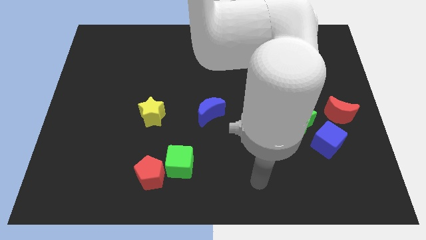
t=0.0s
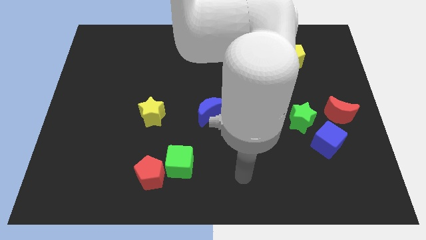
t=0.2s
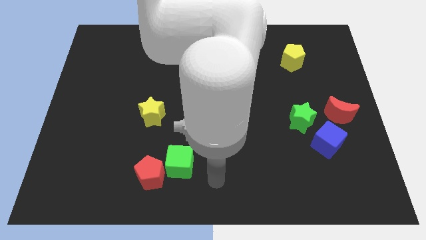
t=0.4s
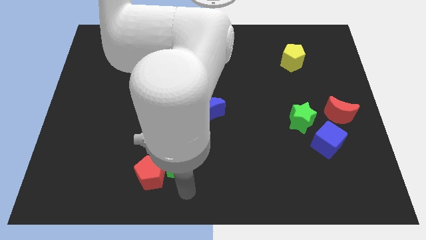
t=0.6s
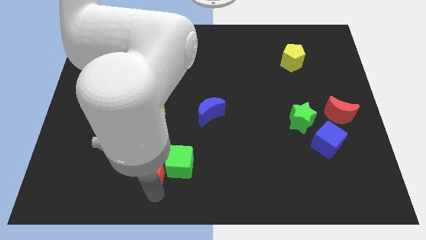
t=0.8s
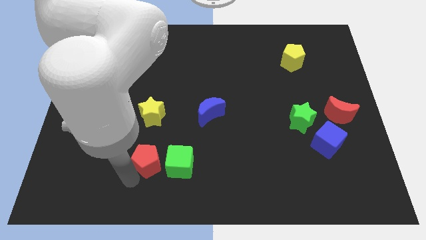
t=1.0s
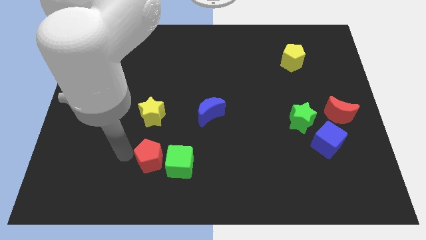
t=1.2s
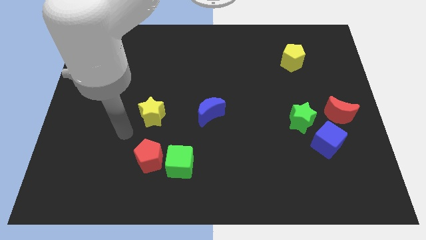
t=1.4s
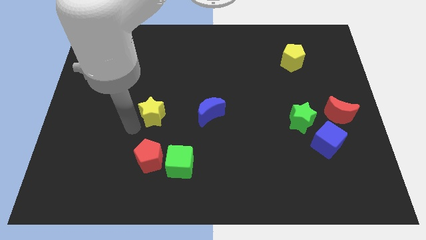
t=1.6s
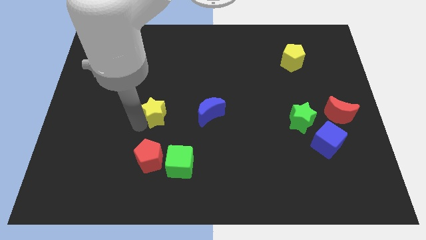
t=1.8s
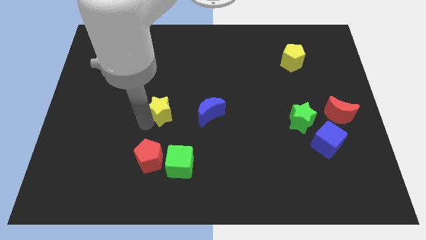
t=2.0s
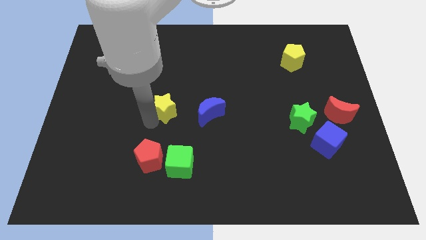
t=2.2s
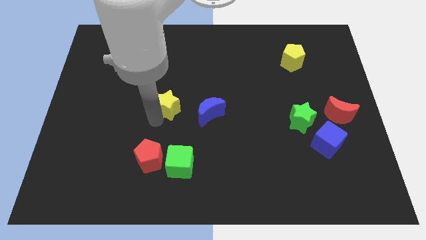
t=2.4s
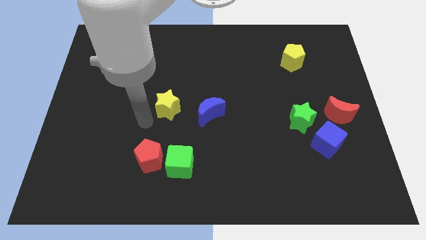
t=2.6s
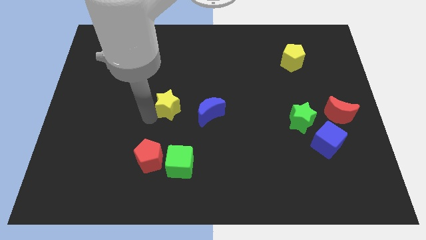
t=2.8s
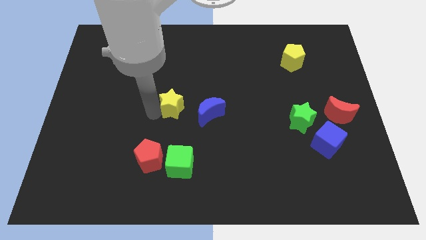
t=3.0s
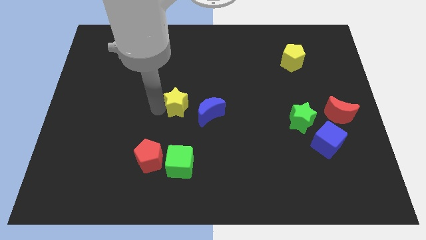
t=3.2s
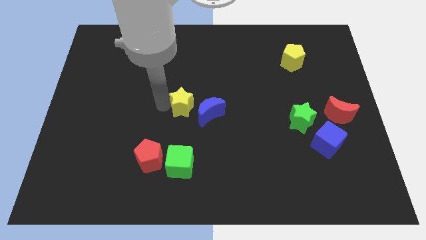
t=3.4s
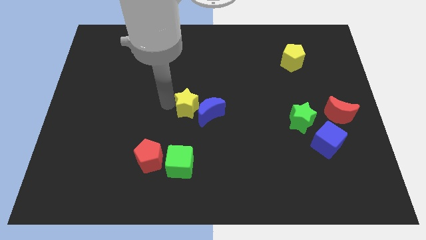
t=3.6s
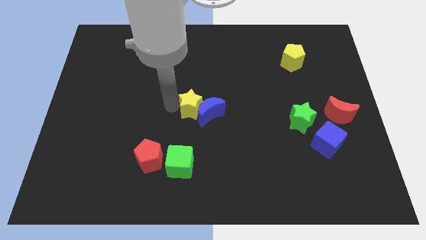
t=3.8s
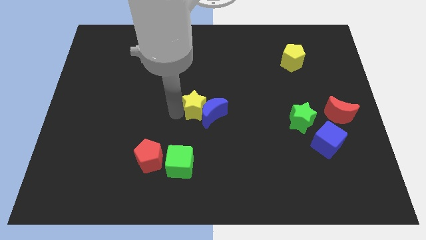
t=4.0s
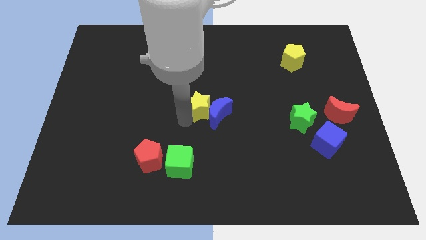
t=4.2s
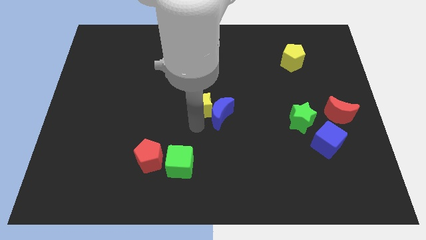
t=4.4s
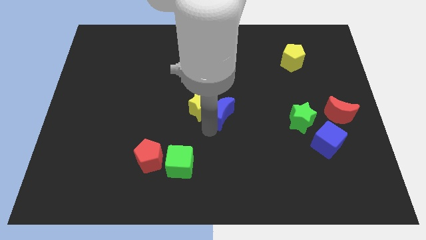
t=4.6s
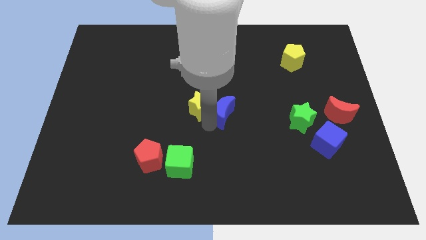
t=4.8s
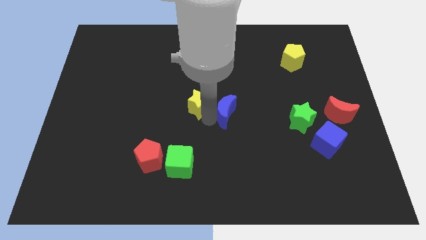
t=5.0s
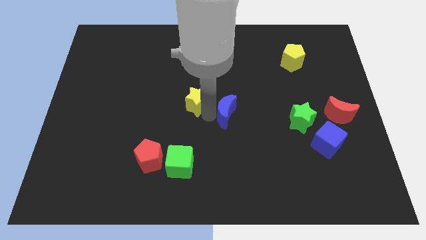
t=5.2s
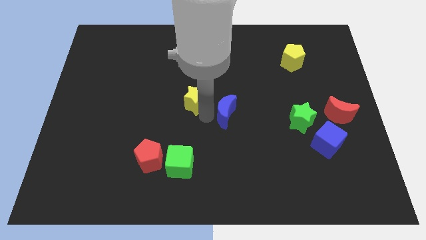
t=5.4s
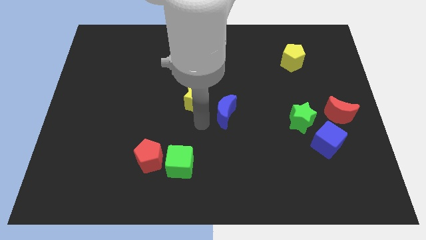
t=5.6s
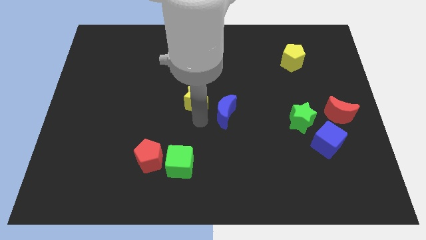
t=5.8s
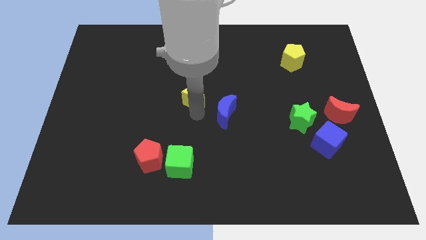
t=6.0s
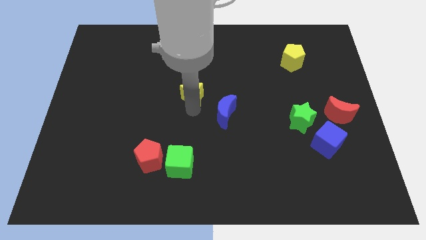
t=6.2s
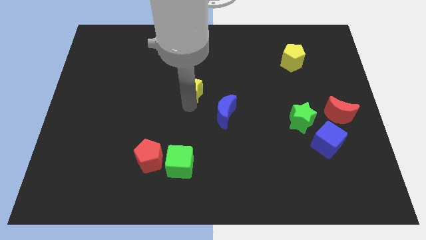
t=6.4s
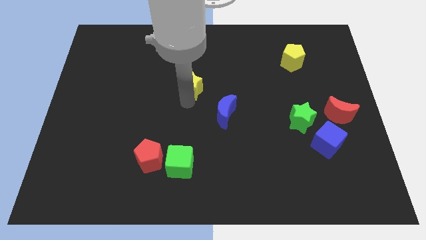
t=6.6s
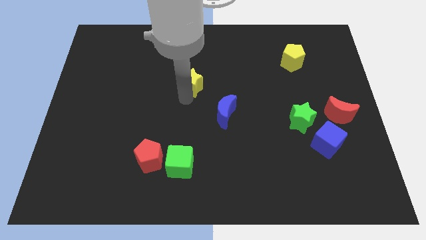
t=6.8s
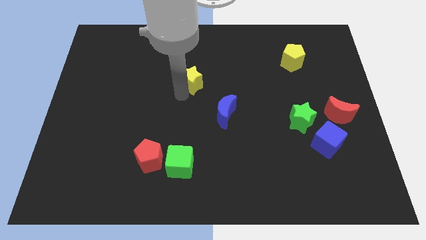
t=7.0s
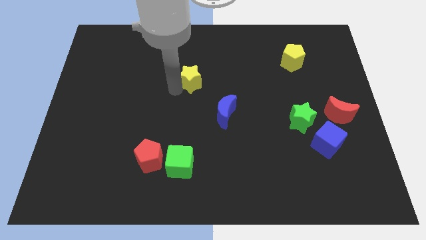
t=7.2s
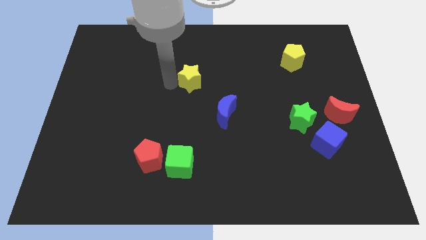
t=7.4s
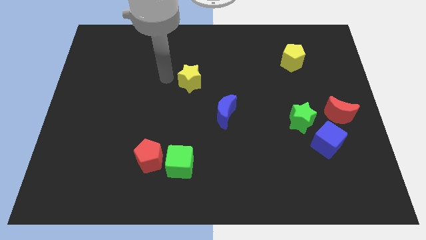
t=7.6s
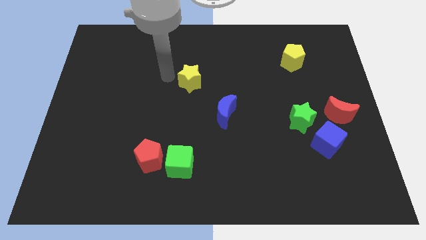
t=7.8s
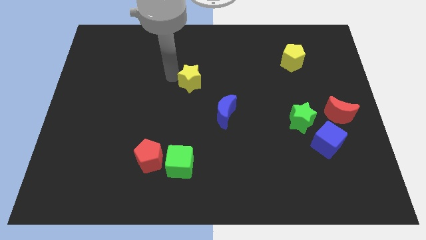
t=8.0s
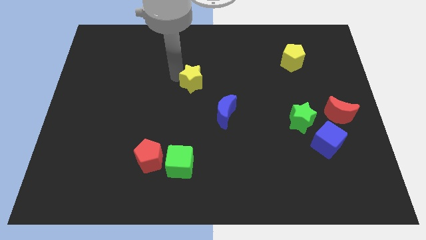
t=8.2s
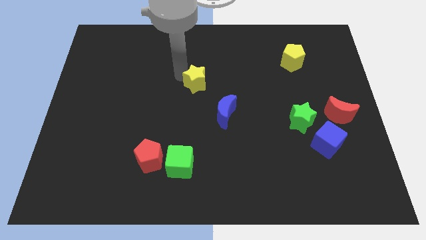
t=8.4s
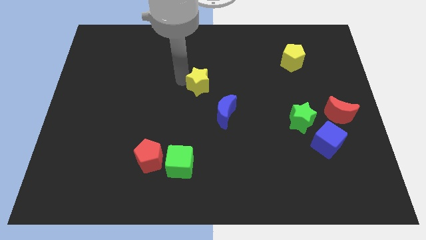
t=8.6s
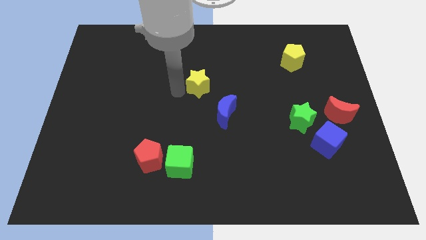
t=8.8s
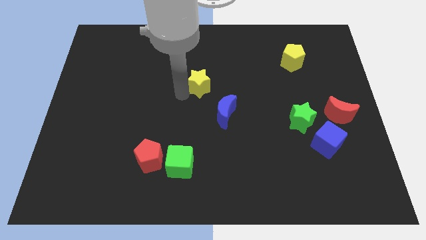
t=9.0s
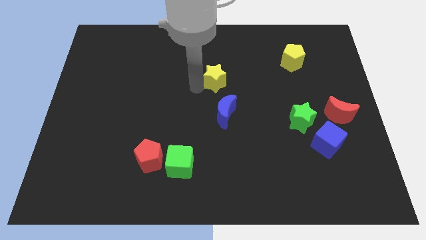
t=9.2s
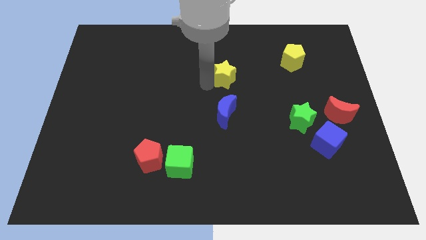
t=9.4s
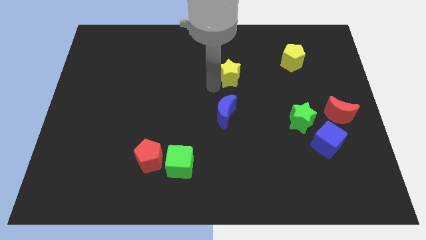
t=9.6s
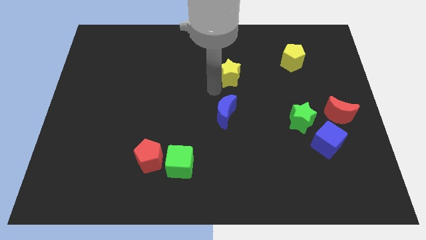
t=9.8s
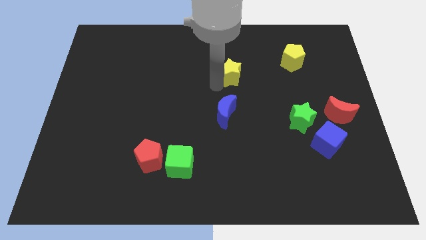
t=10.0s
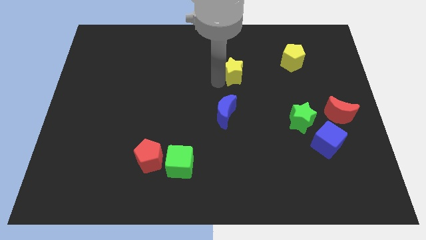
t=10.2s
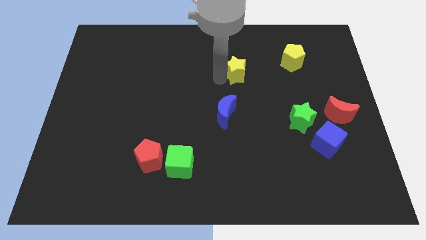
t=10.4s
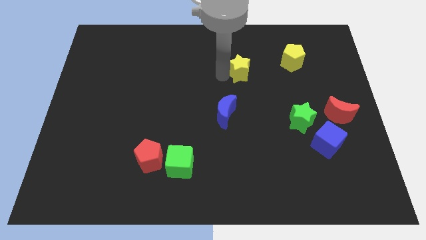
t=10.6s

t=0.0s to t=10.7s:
push the yellow star to the left side of the yellow pentagon

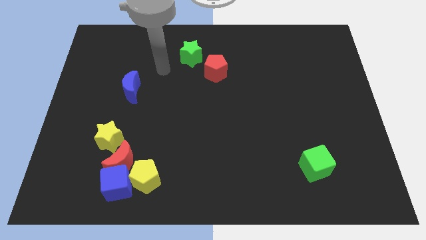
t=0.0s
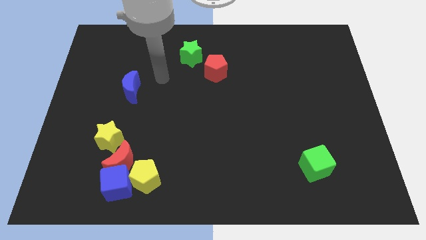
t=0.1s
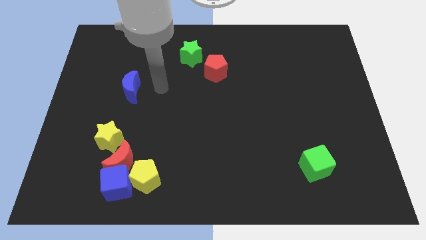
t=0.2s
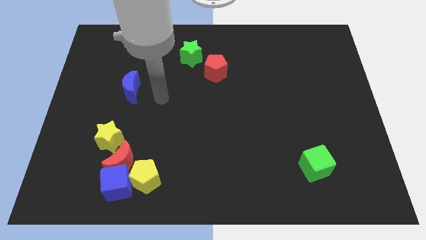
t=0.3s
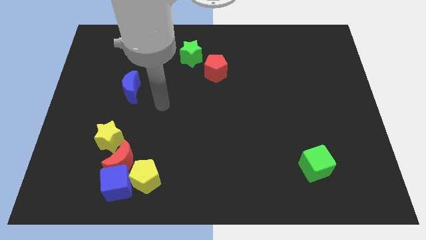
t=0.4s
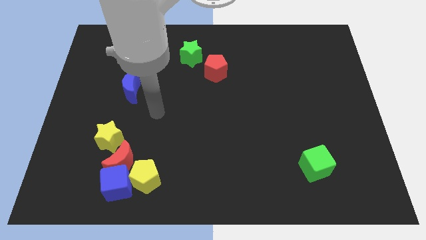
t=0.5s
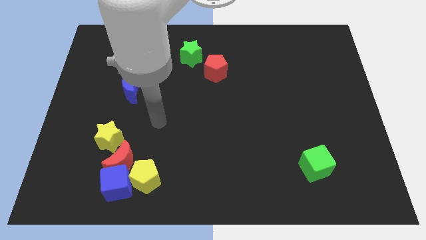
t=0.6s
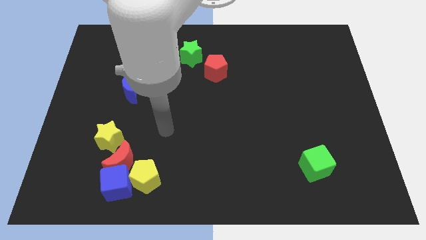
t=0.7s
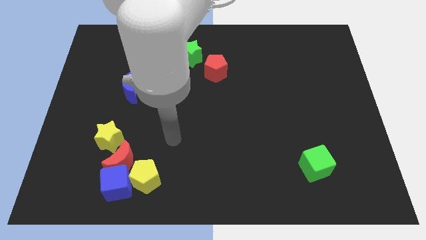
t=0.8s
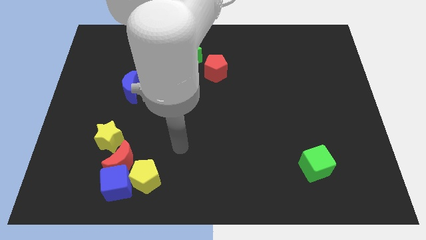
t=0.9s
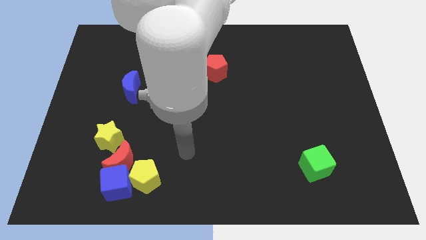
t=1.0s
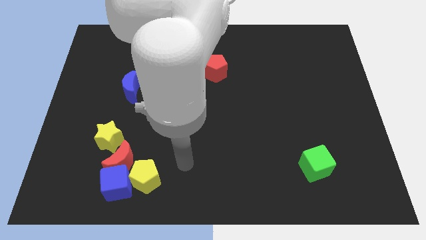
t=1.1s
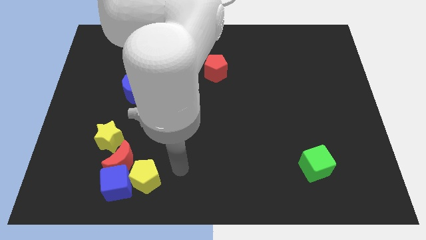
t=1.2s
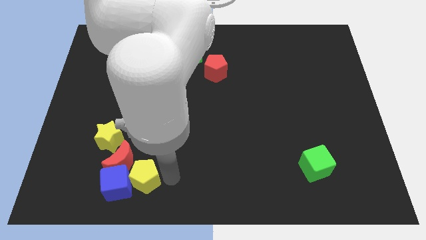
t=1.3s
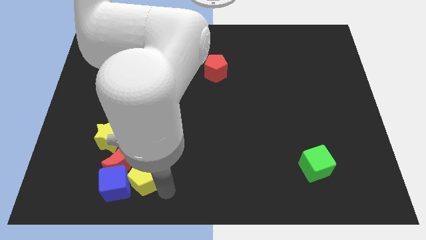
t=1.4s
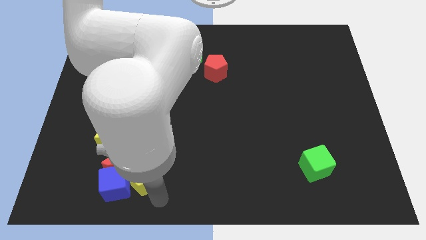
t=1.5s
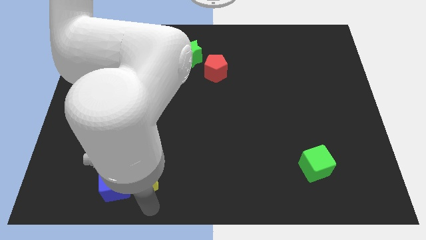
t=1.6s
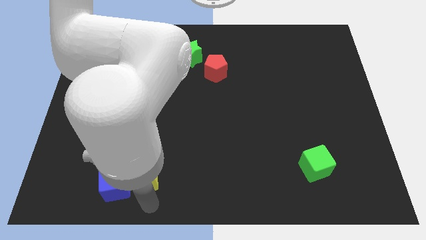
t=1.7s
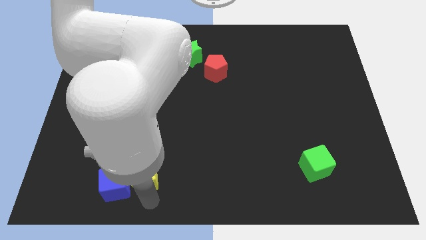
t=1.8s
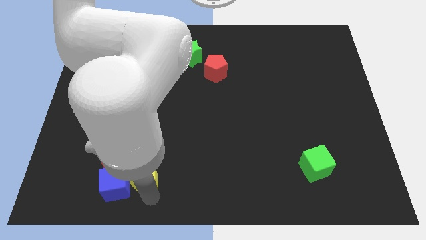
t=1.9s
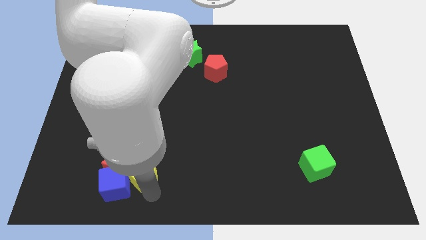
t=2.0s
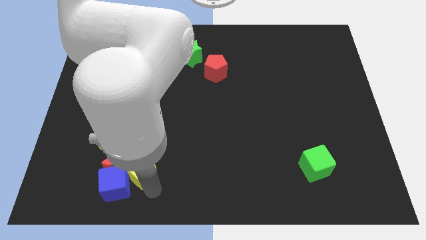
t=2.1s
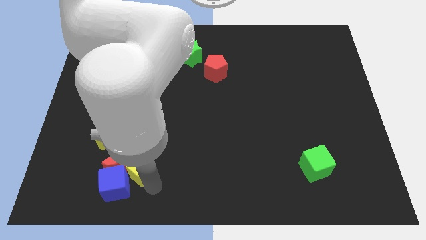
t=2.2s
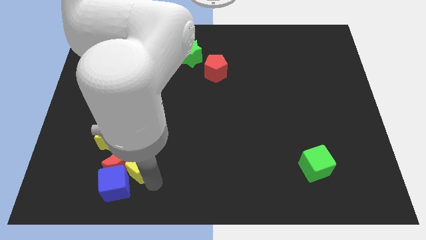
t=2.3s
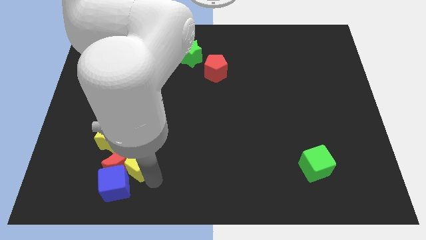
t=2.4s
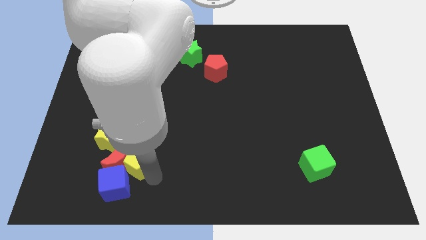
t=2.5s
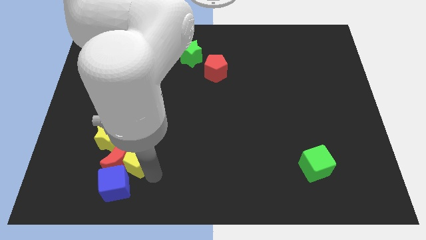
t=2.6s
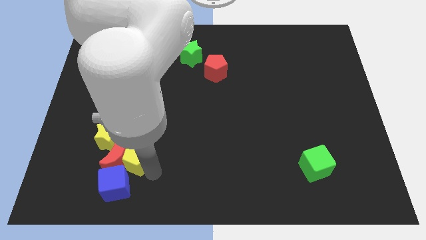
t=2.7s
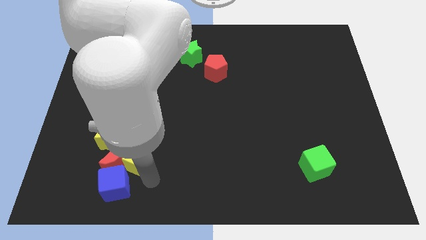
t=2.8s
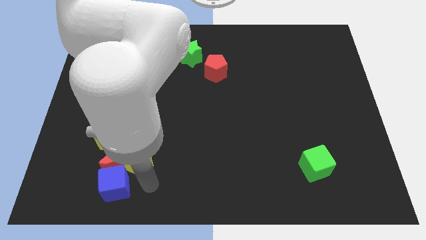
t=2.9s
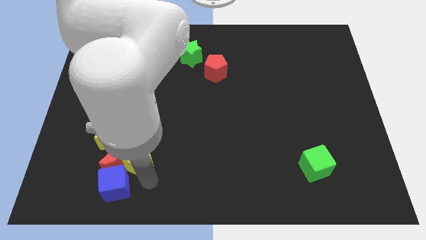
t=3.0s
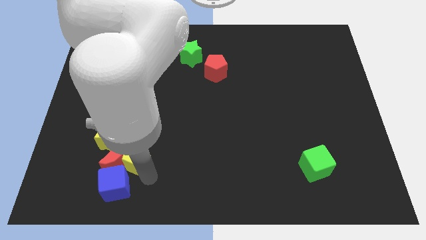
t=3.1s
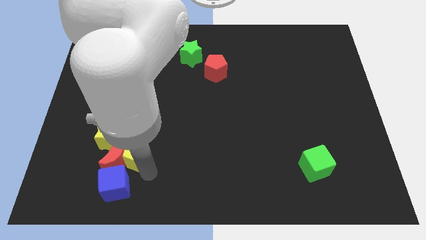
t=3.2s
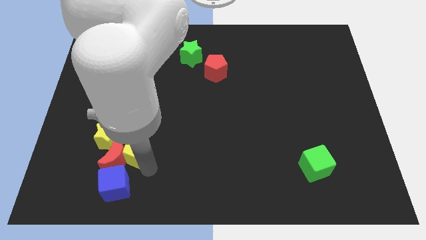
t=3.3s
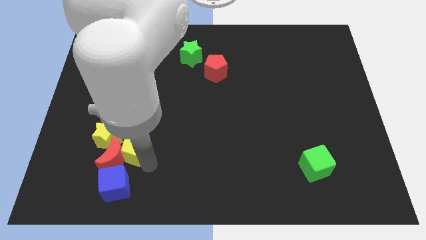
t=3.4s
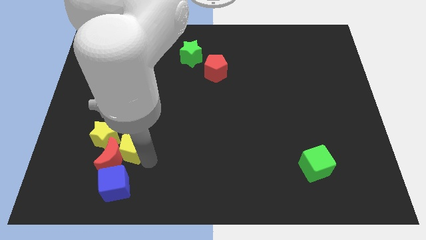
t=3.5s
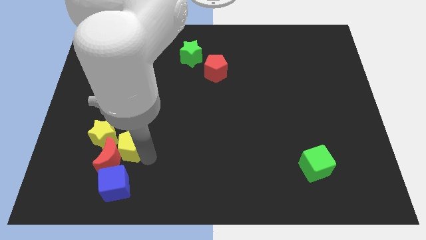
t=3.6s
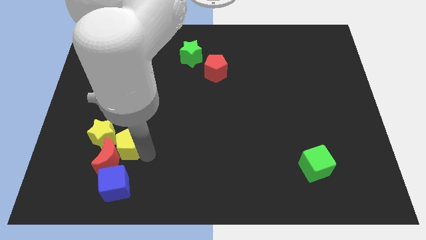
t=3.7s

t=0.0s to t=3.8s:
move the yellow pentagon to the bottom side of the blue moon
